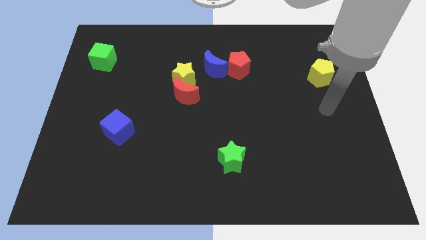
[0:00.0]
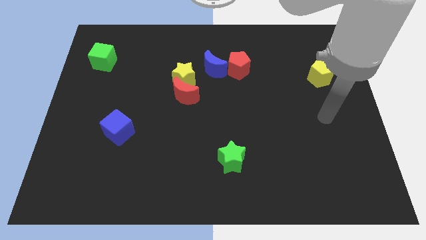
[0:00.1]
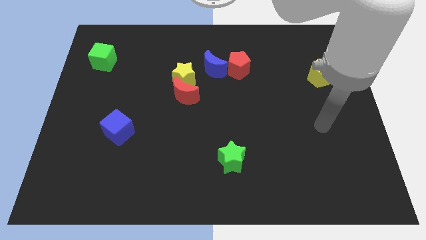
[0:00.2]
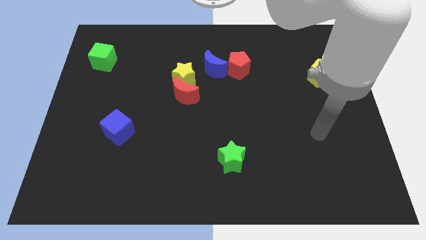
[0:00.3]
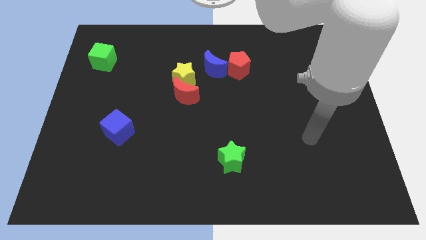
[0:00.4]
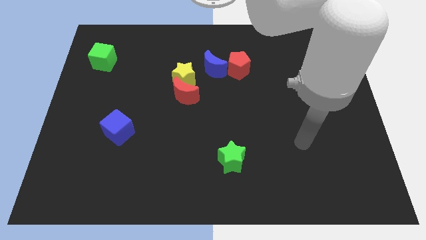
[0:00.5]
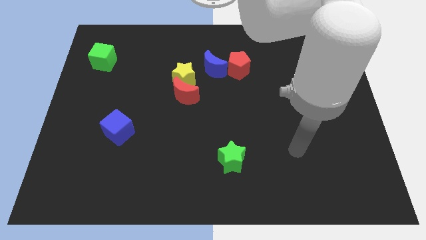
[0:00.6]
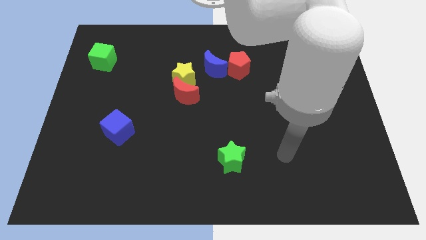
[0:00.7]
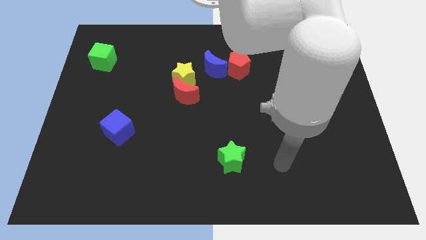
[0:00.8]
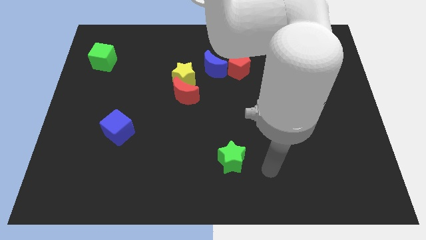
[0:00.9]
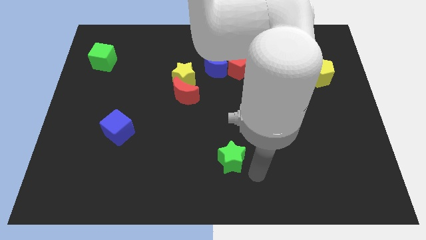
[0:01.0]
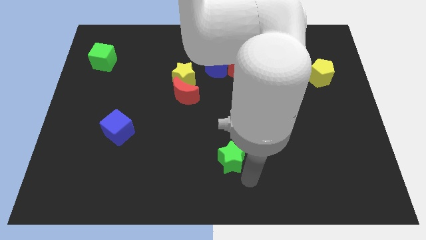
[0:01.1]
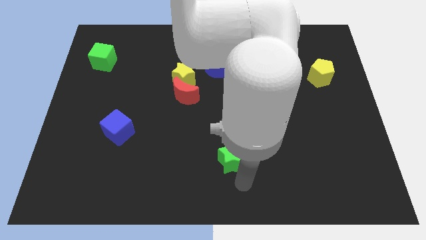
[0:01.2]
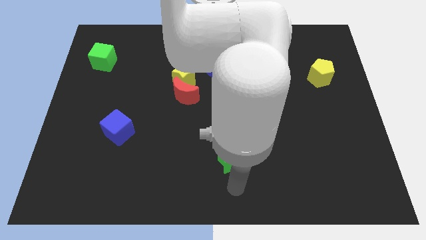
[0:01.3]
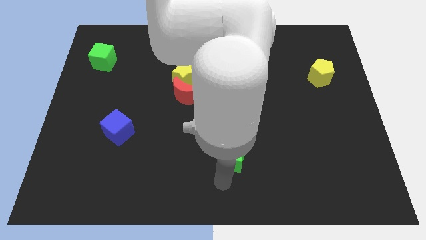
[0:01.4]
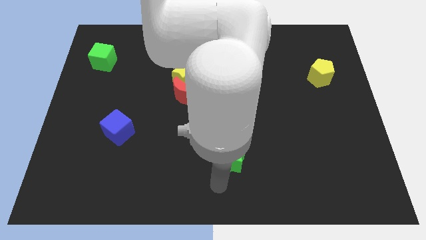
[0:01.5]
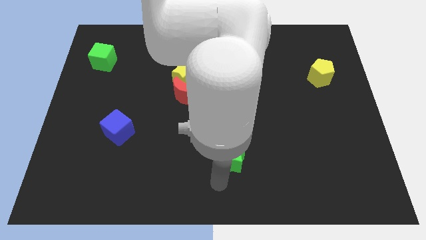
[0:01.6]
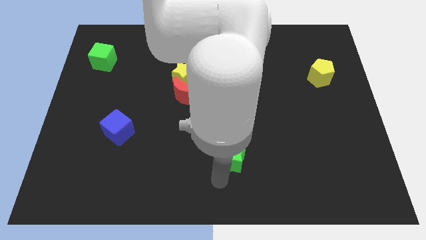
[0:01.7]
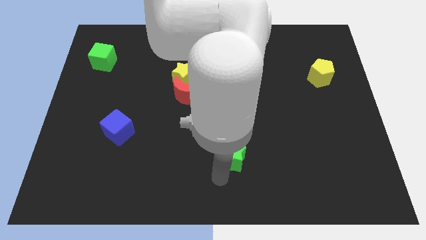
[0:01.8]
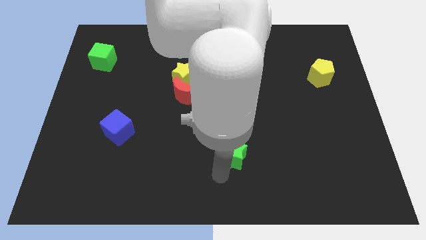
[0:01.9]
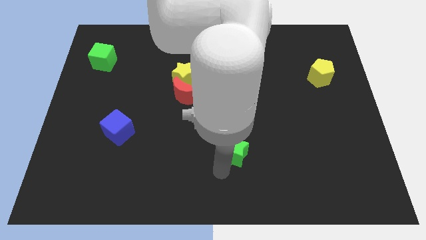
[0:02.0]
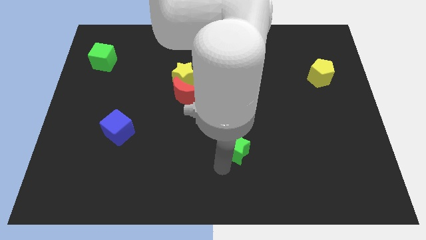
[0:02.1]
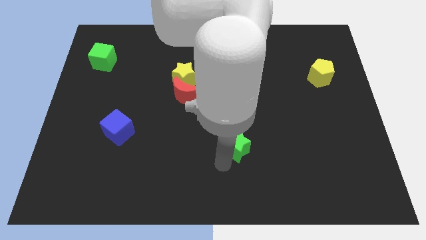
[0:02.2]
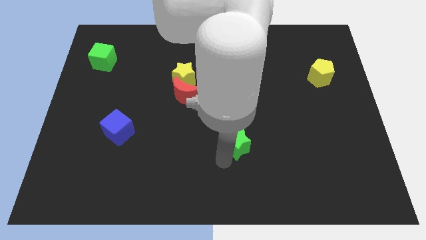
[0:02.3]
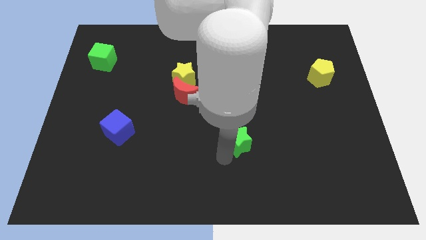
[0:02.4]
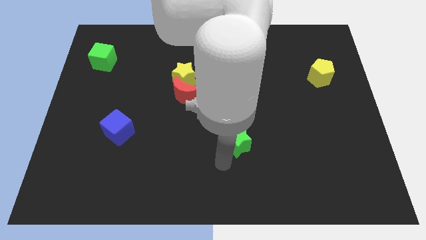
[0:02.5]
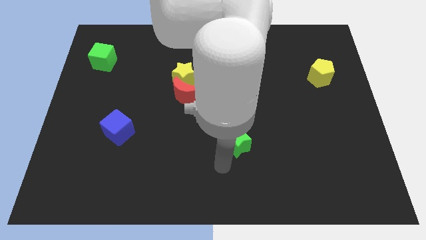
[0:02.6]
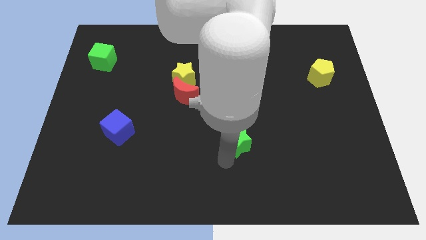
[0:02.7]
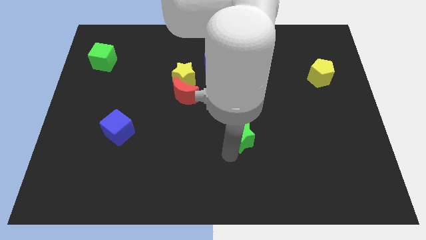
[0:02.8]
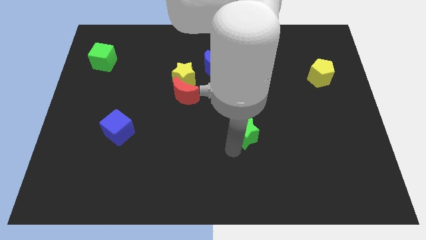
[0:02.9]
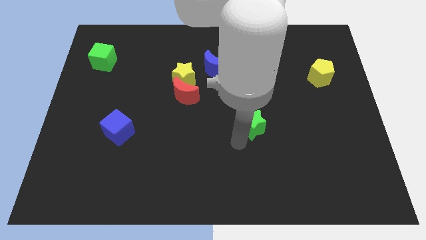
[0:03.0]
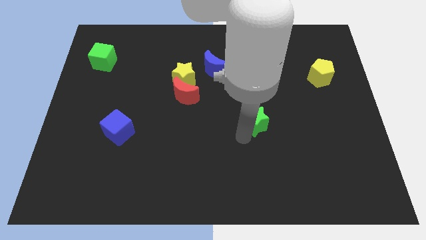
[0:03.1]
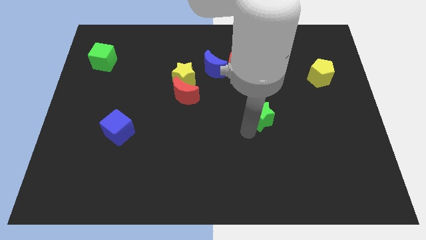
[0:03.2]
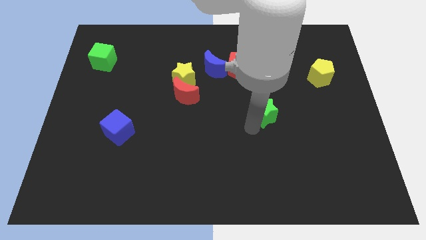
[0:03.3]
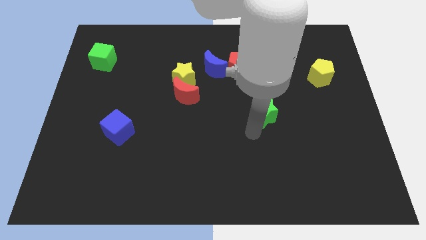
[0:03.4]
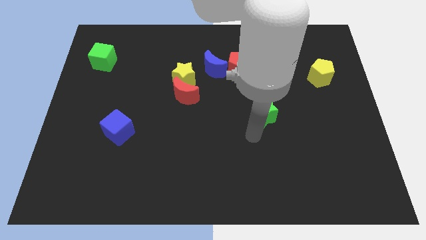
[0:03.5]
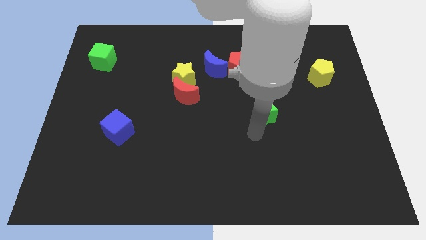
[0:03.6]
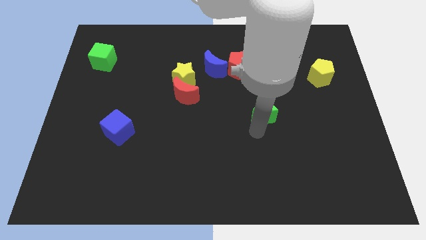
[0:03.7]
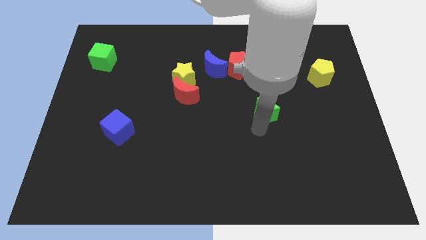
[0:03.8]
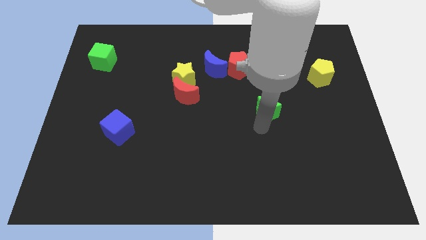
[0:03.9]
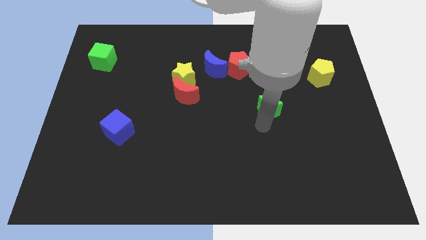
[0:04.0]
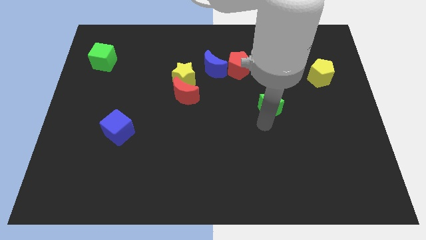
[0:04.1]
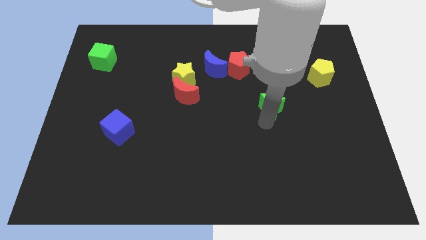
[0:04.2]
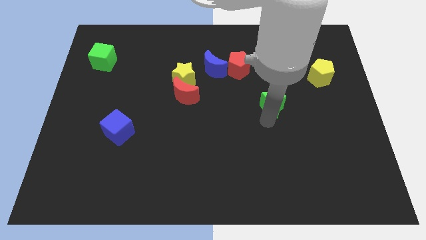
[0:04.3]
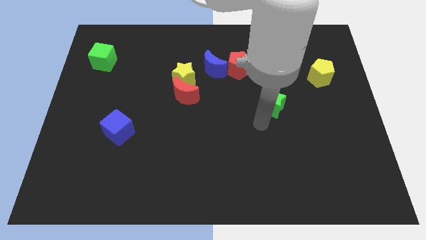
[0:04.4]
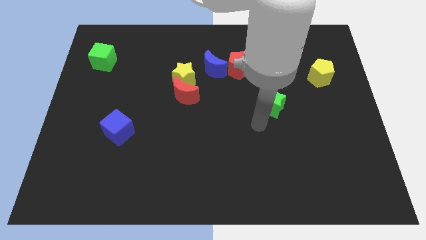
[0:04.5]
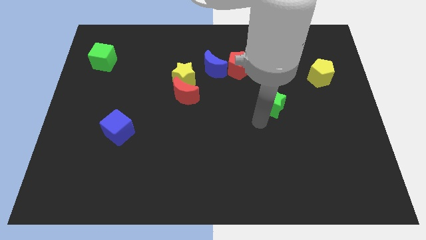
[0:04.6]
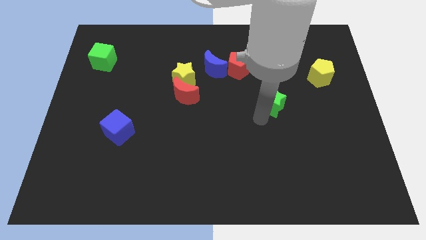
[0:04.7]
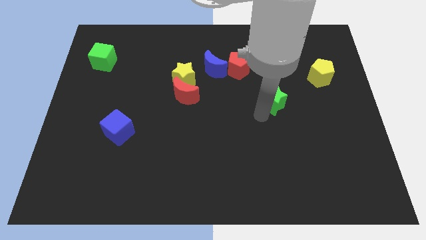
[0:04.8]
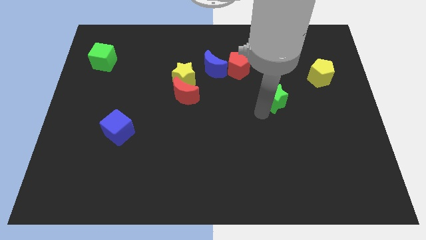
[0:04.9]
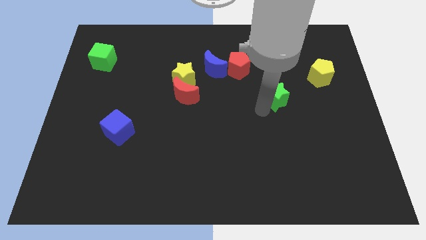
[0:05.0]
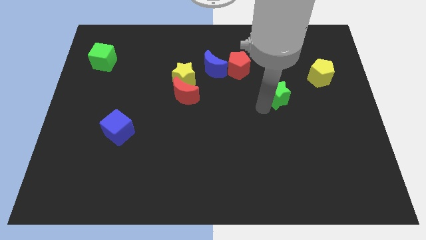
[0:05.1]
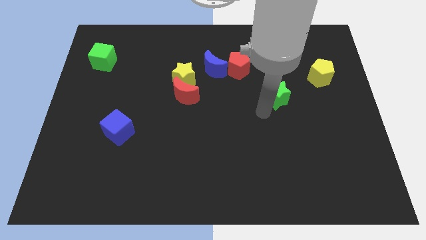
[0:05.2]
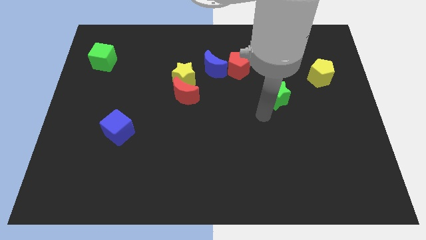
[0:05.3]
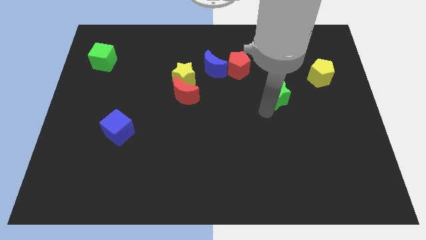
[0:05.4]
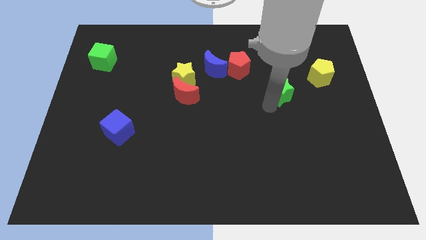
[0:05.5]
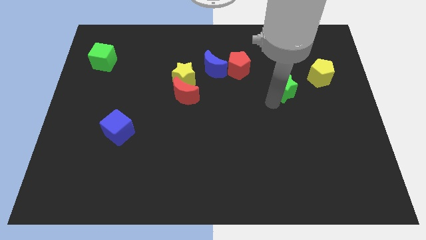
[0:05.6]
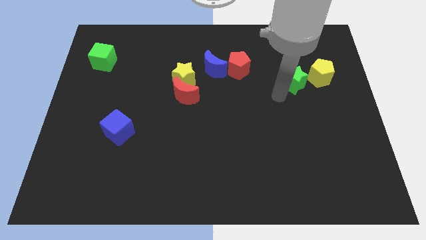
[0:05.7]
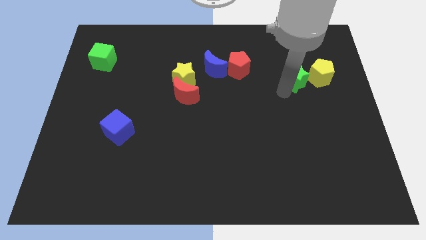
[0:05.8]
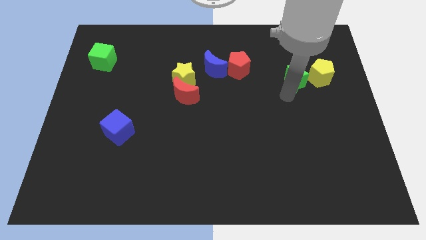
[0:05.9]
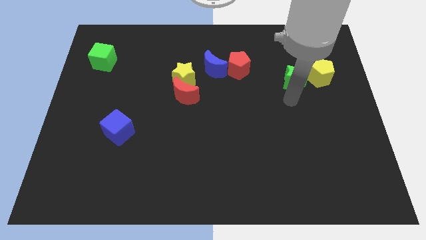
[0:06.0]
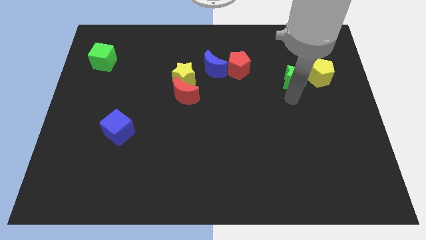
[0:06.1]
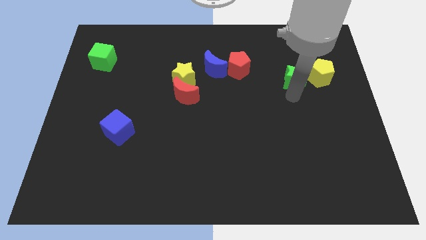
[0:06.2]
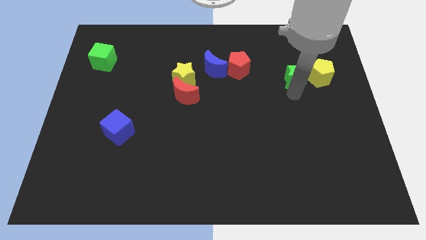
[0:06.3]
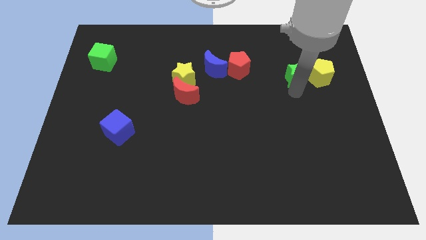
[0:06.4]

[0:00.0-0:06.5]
move the green star to the top left of the yellow pentagon

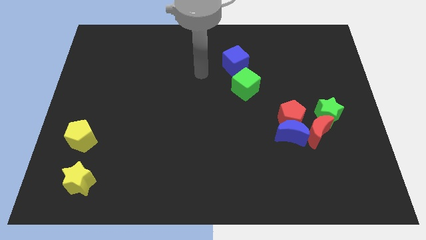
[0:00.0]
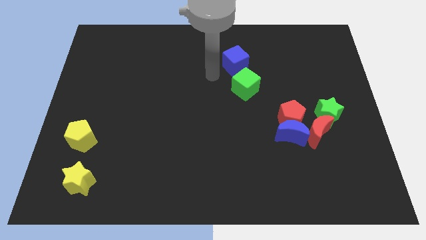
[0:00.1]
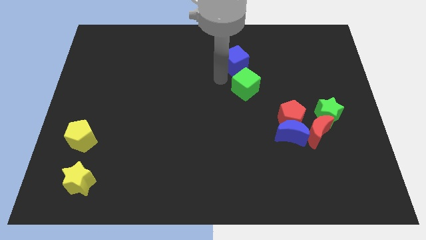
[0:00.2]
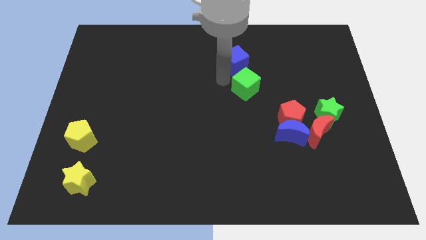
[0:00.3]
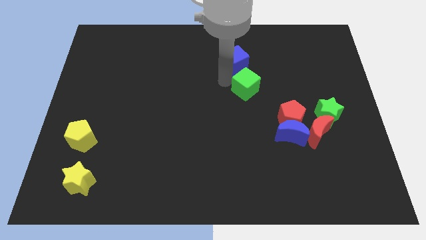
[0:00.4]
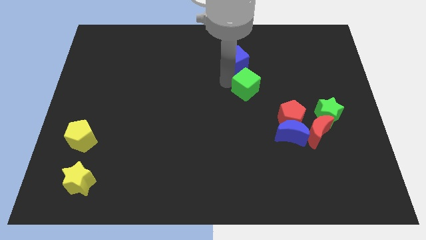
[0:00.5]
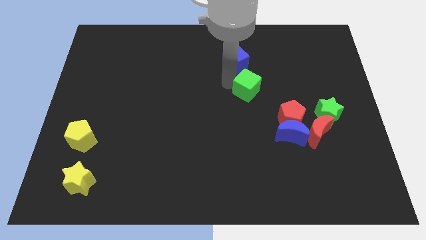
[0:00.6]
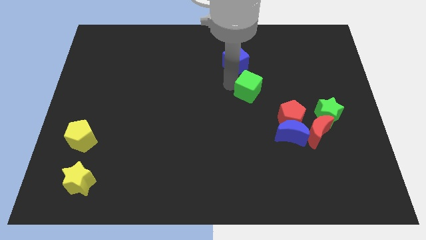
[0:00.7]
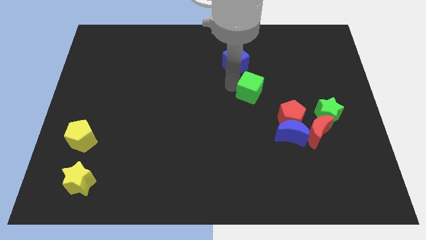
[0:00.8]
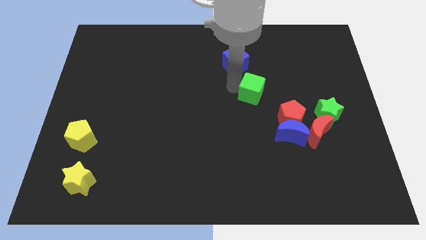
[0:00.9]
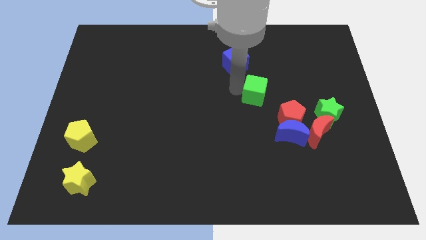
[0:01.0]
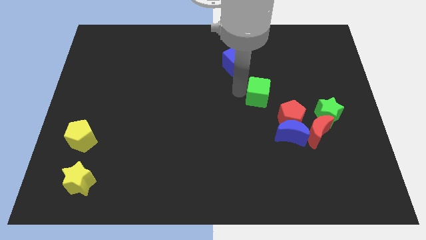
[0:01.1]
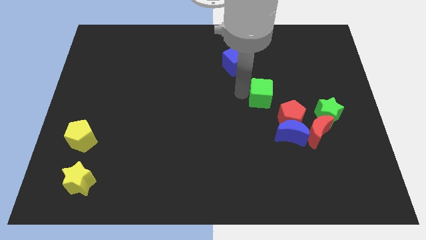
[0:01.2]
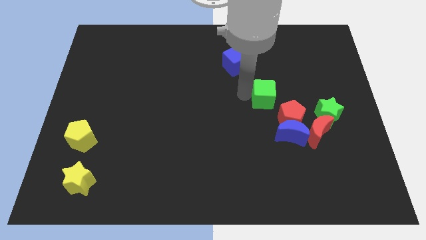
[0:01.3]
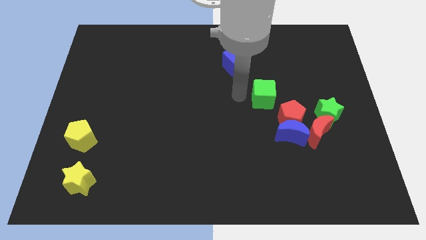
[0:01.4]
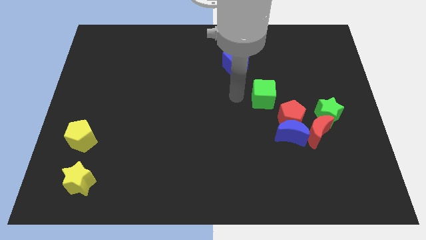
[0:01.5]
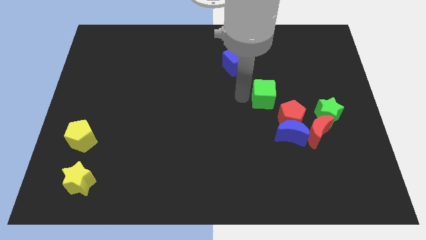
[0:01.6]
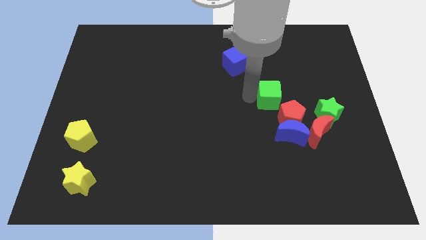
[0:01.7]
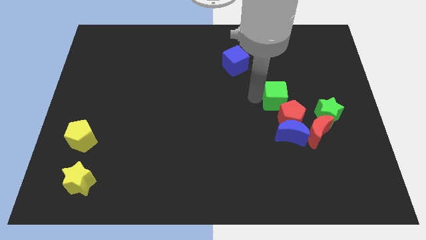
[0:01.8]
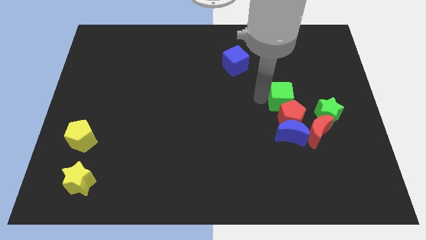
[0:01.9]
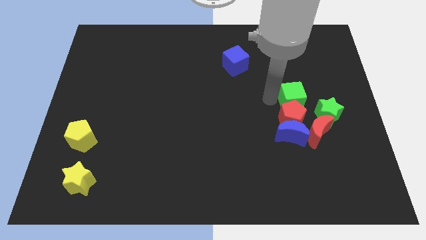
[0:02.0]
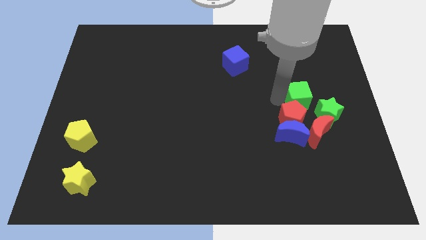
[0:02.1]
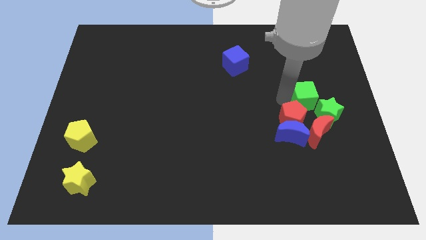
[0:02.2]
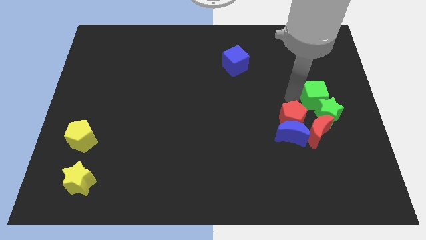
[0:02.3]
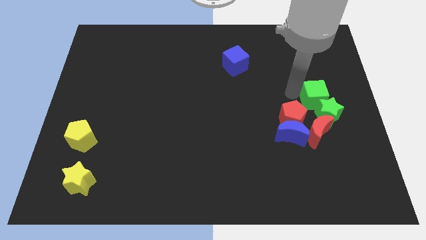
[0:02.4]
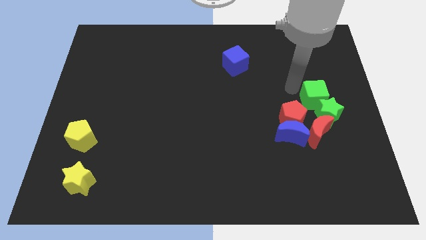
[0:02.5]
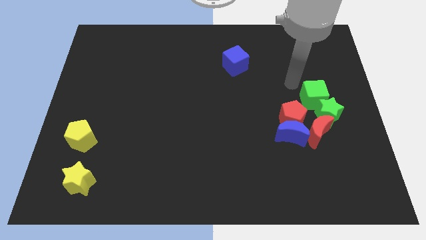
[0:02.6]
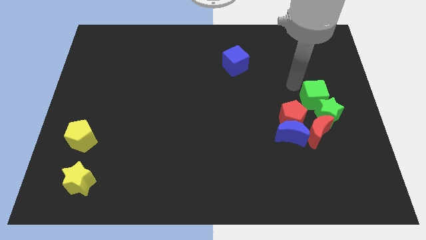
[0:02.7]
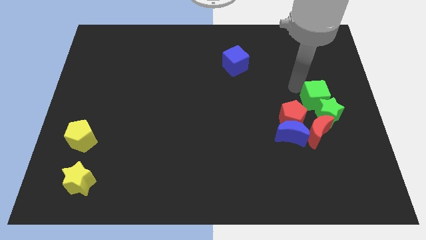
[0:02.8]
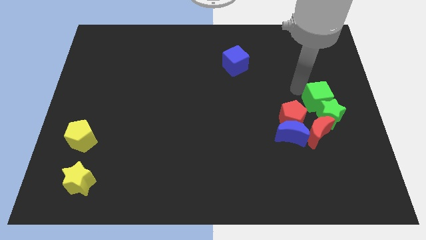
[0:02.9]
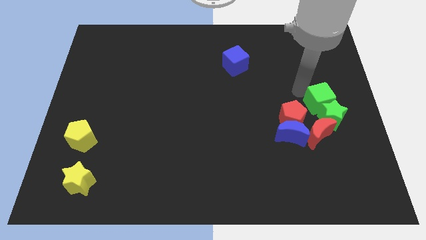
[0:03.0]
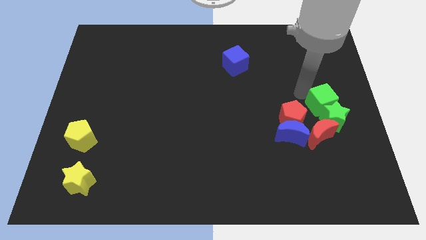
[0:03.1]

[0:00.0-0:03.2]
slide the green cube to the top right of the red moon
